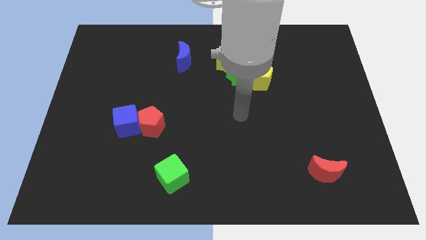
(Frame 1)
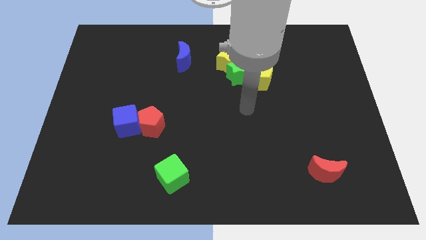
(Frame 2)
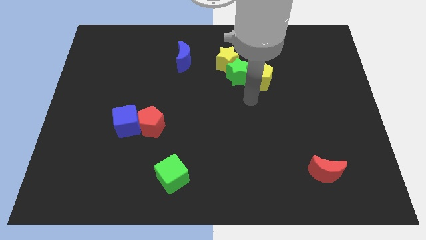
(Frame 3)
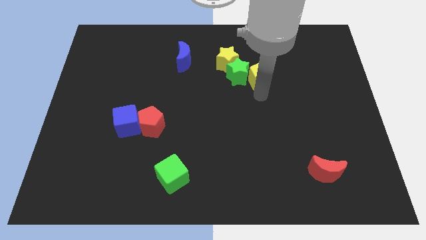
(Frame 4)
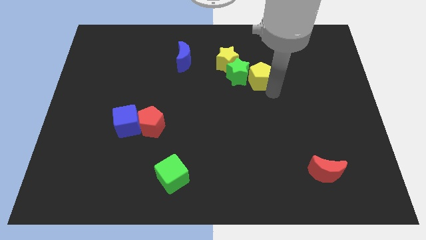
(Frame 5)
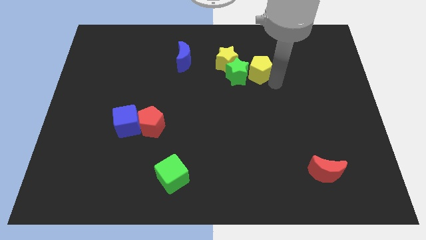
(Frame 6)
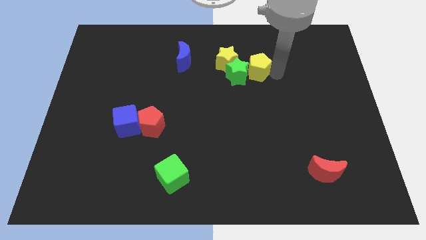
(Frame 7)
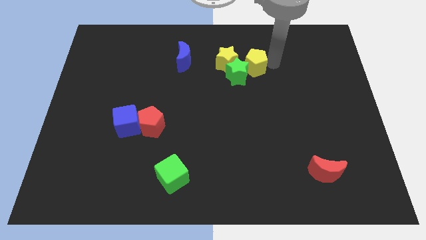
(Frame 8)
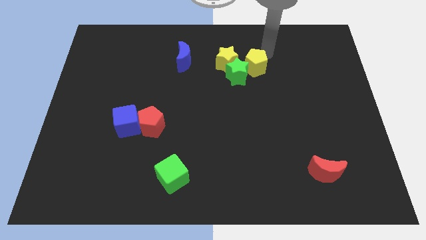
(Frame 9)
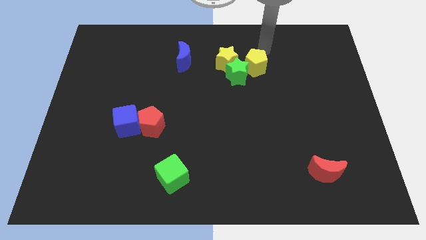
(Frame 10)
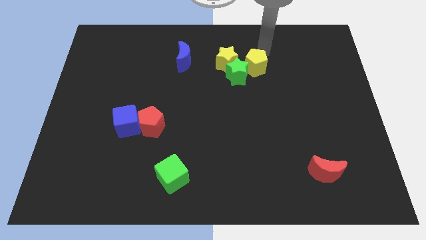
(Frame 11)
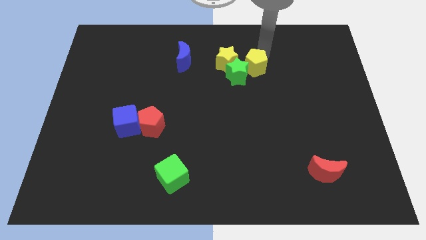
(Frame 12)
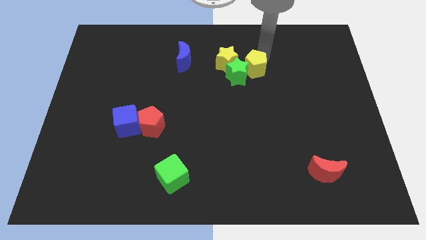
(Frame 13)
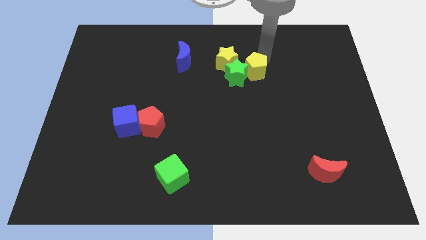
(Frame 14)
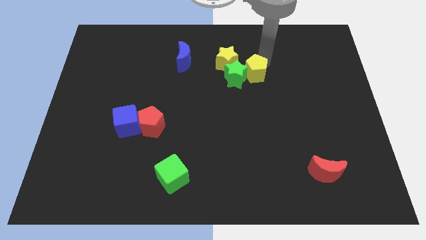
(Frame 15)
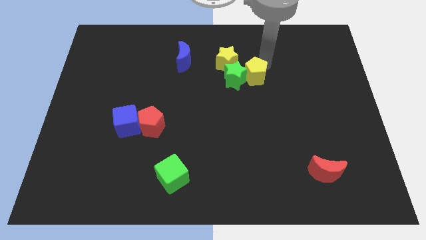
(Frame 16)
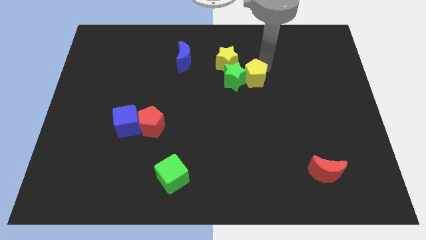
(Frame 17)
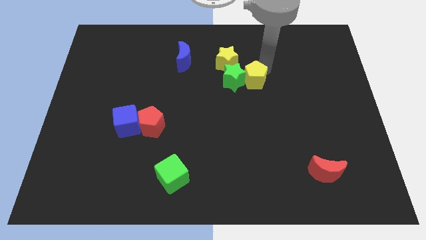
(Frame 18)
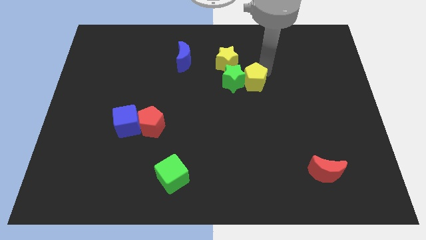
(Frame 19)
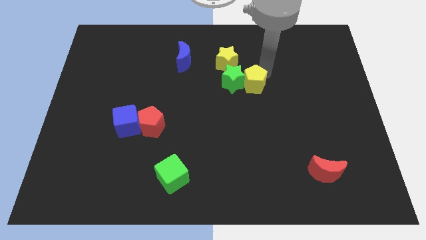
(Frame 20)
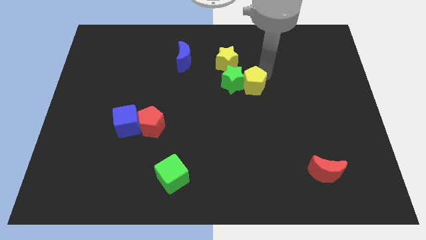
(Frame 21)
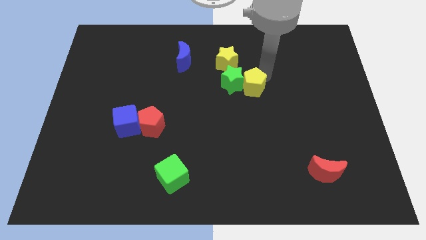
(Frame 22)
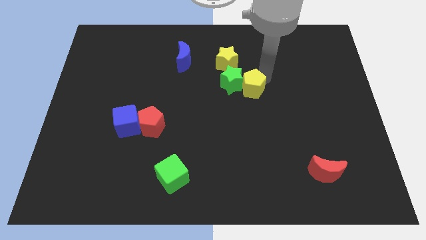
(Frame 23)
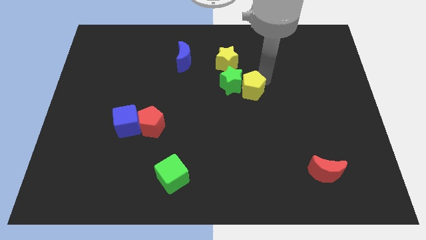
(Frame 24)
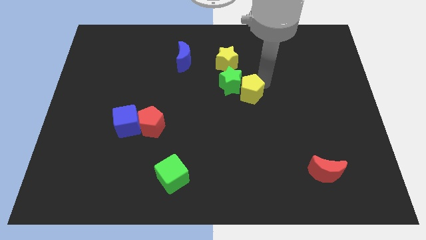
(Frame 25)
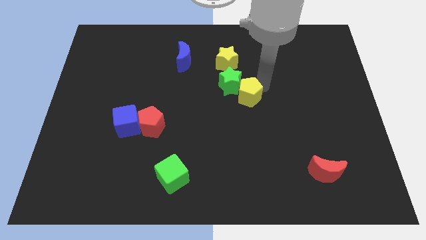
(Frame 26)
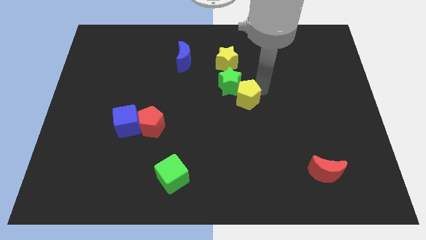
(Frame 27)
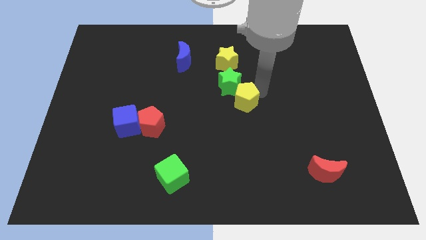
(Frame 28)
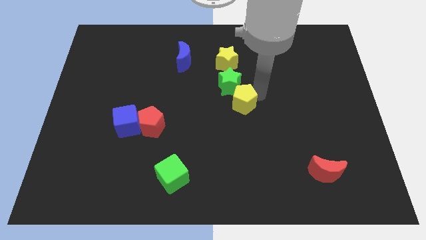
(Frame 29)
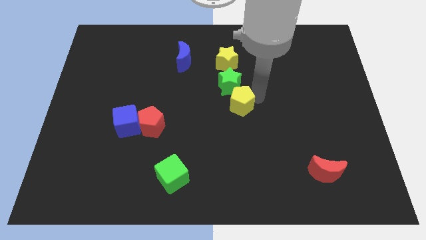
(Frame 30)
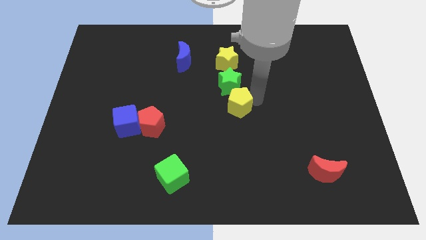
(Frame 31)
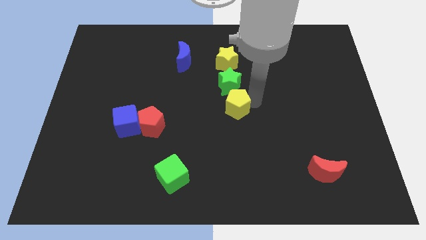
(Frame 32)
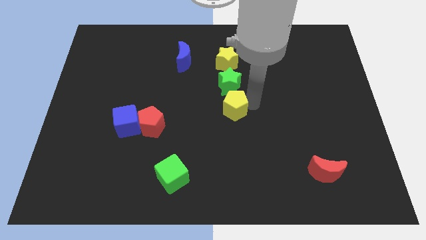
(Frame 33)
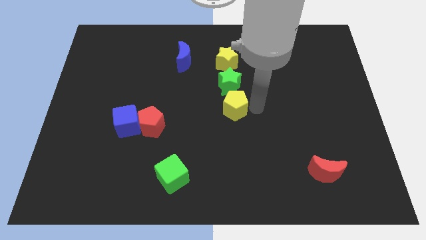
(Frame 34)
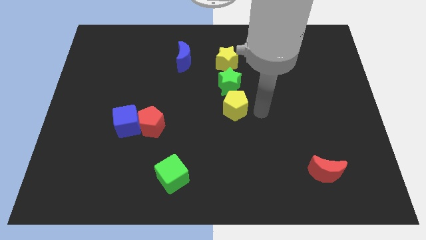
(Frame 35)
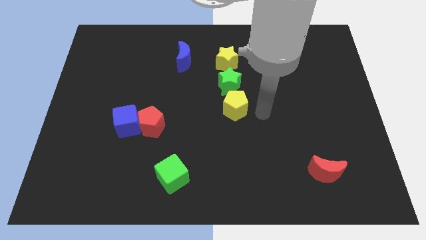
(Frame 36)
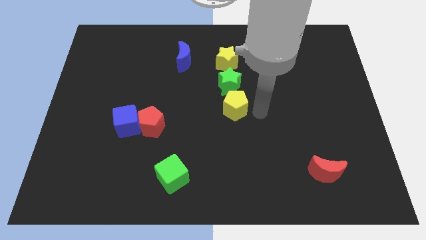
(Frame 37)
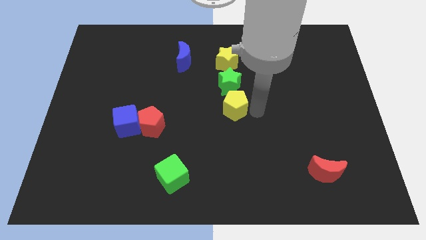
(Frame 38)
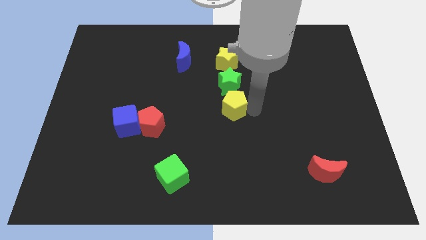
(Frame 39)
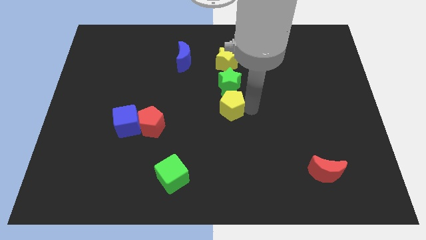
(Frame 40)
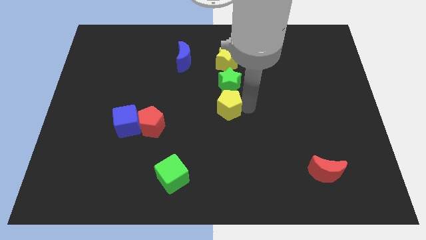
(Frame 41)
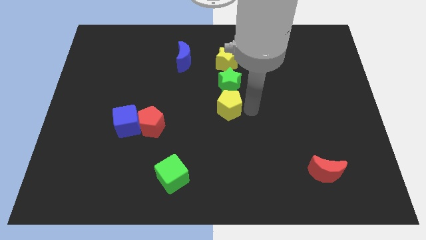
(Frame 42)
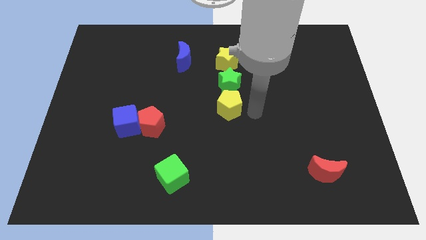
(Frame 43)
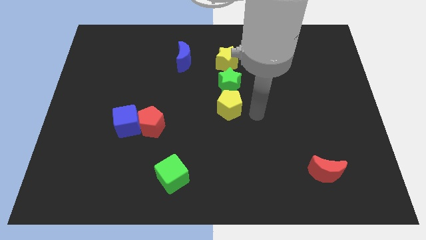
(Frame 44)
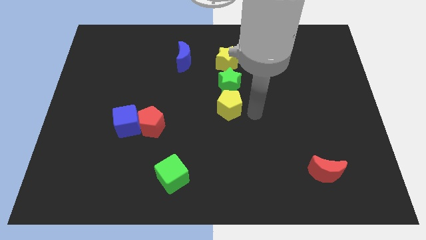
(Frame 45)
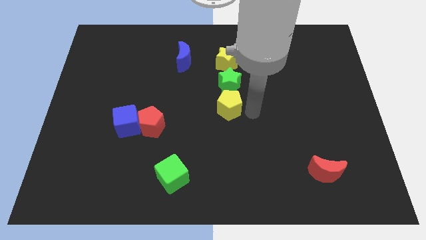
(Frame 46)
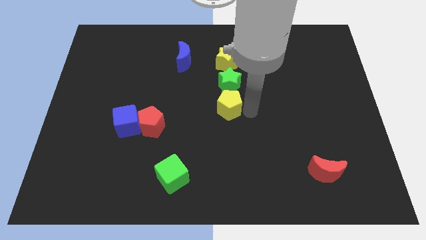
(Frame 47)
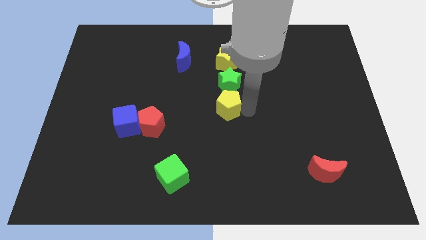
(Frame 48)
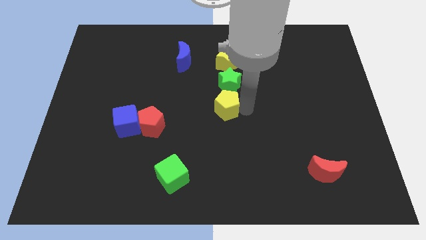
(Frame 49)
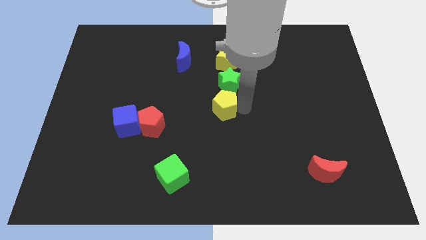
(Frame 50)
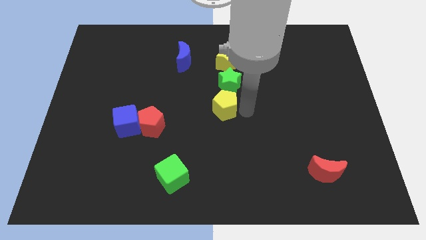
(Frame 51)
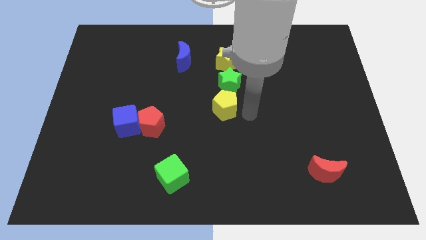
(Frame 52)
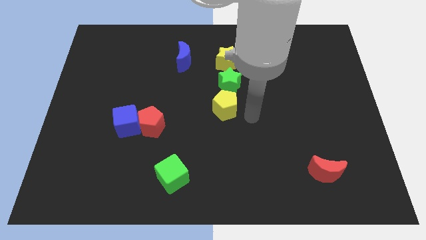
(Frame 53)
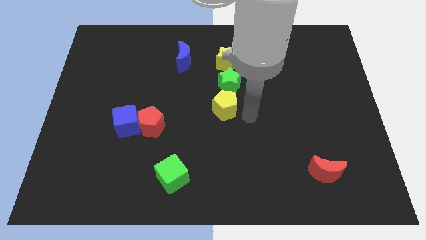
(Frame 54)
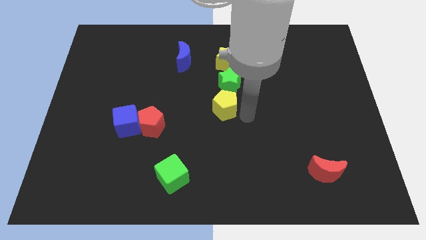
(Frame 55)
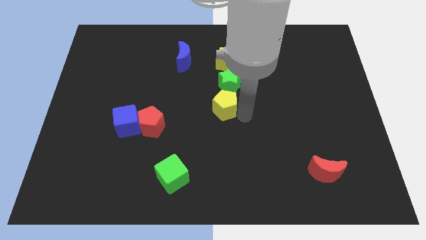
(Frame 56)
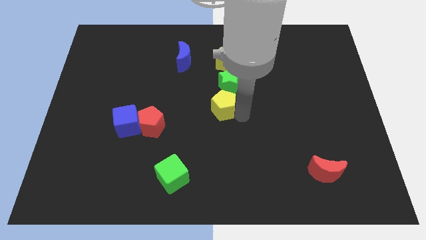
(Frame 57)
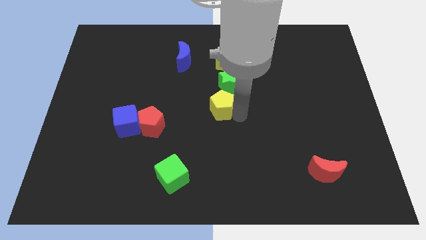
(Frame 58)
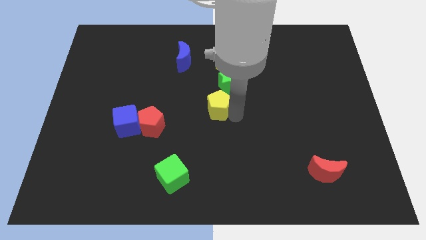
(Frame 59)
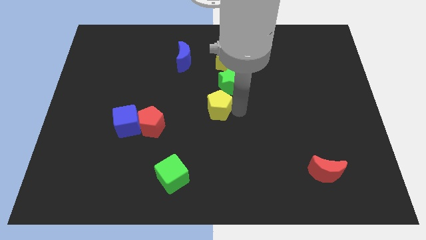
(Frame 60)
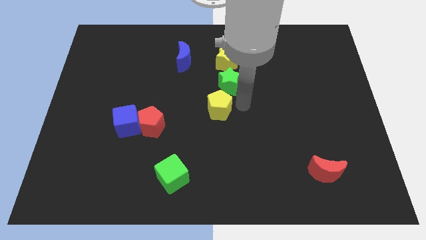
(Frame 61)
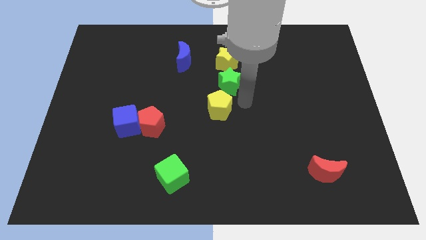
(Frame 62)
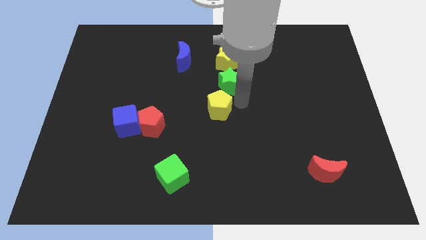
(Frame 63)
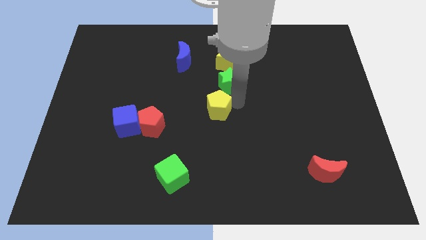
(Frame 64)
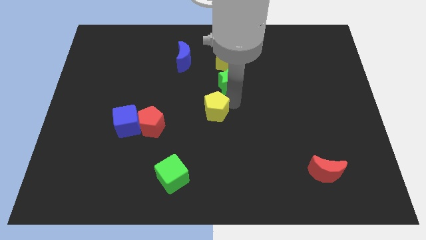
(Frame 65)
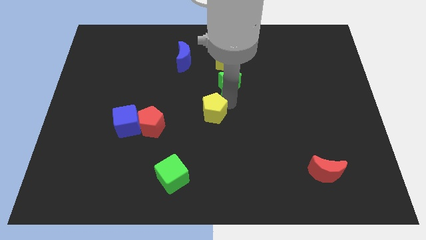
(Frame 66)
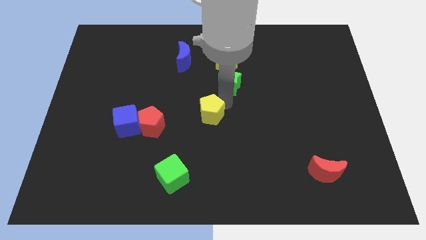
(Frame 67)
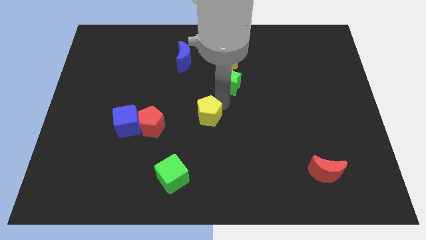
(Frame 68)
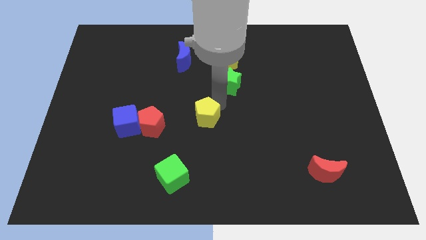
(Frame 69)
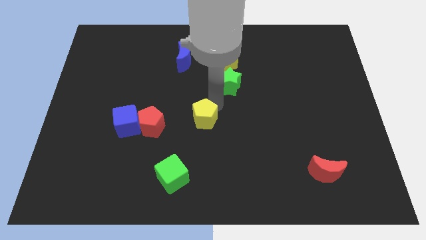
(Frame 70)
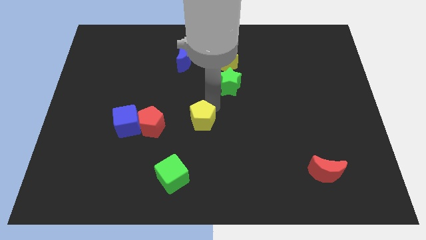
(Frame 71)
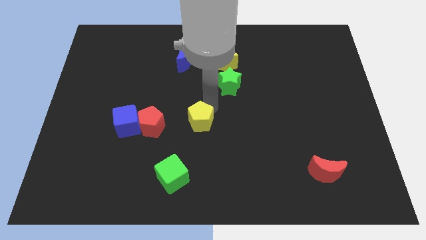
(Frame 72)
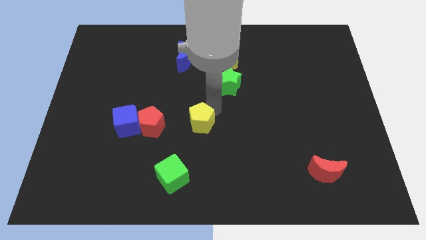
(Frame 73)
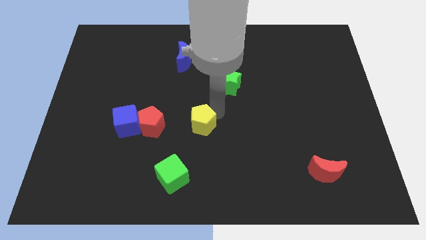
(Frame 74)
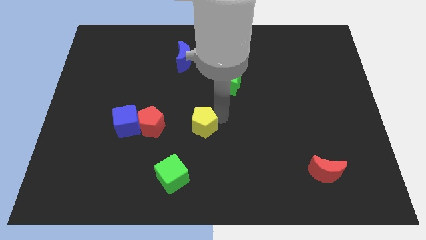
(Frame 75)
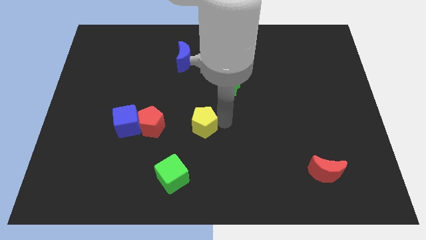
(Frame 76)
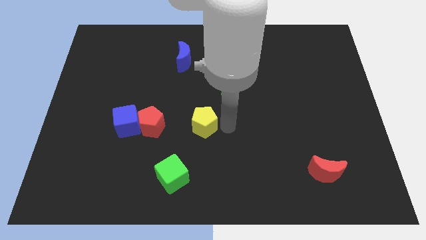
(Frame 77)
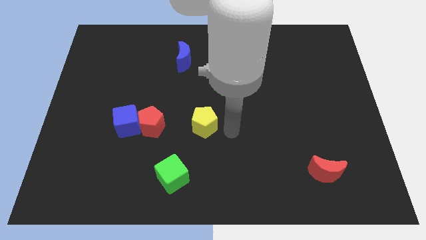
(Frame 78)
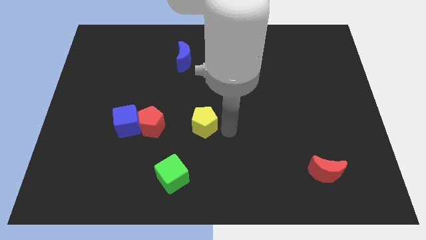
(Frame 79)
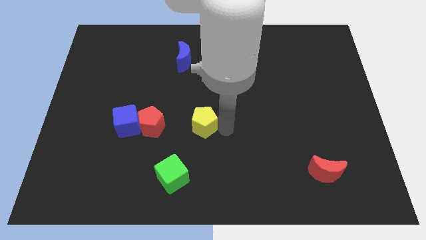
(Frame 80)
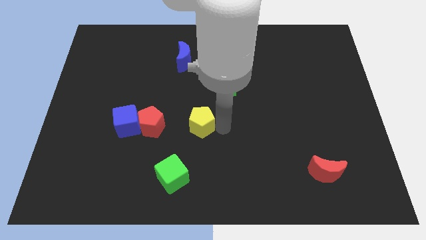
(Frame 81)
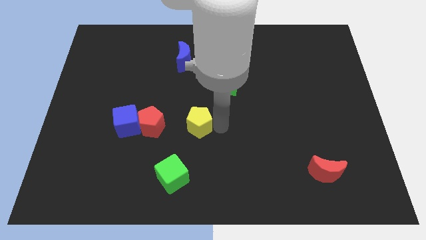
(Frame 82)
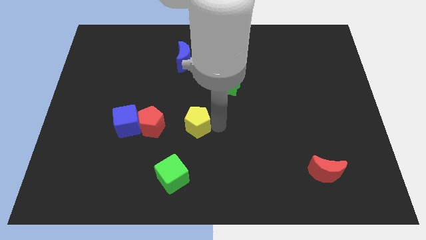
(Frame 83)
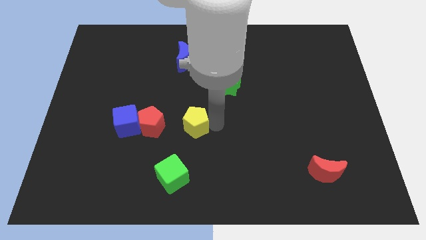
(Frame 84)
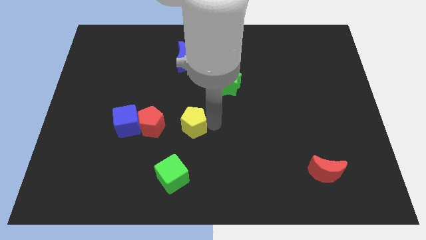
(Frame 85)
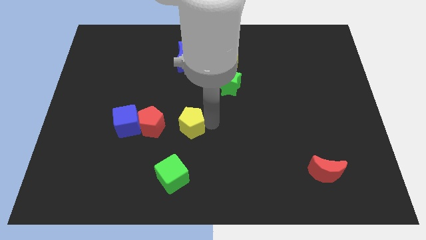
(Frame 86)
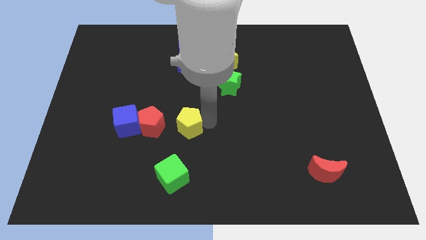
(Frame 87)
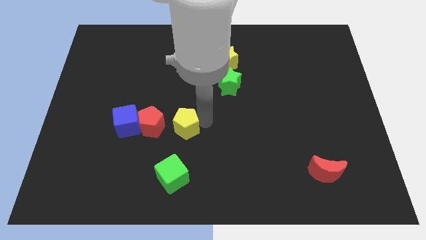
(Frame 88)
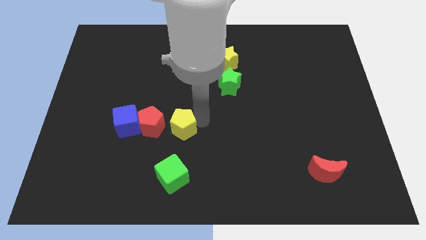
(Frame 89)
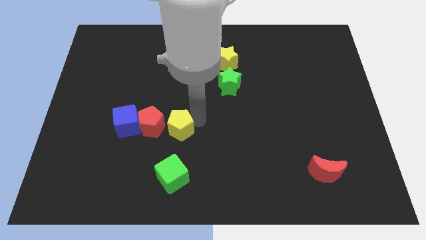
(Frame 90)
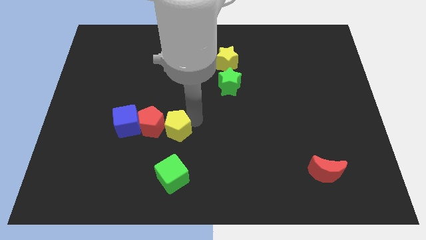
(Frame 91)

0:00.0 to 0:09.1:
move the yellow pentagon to the red pentagon
